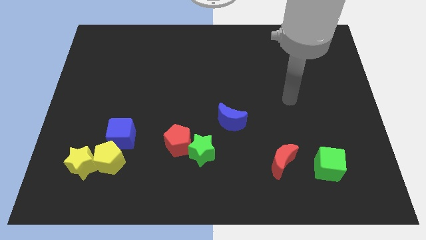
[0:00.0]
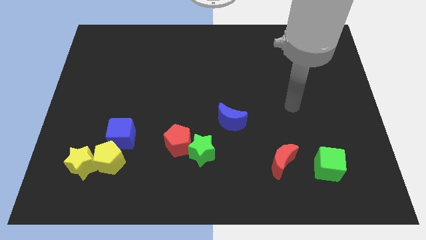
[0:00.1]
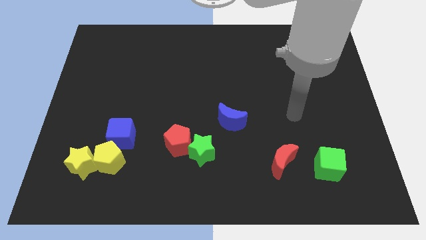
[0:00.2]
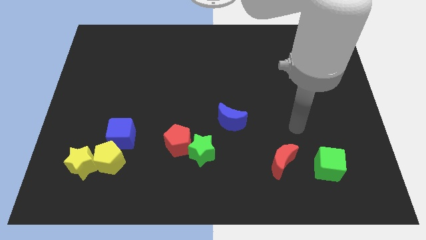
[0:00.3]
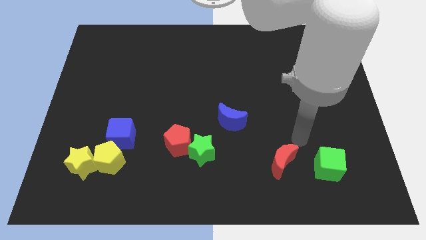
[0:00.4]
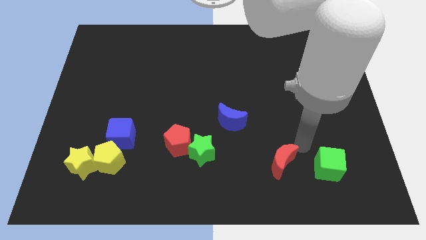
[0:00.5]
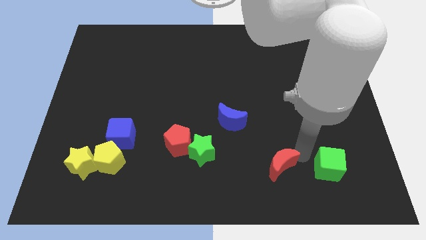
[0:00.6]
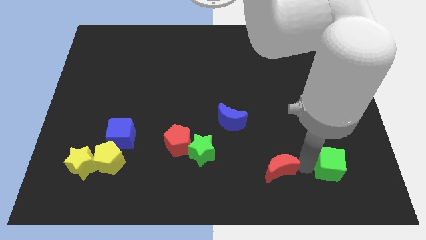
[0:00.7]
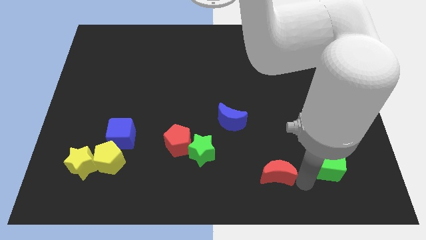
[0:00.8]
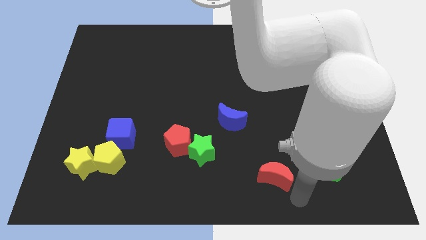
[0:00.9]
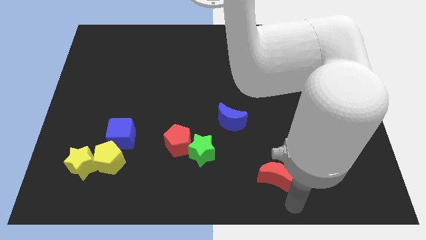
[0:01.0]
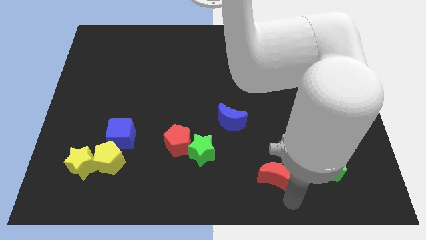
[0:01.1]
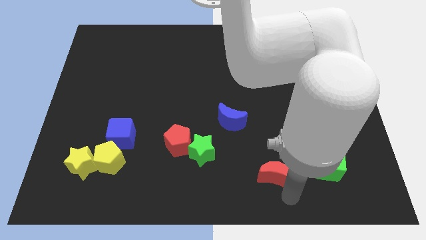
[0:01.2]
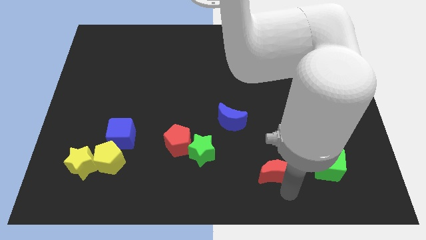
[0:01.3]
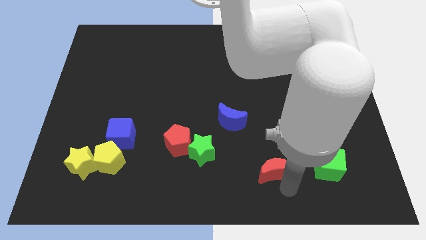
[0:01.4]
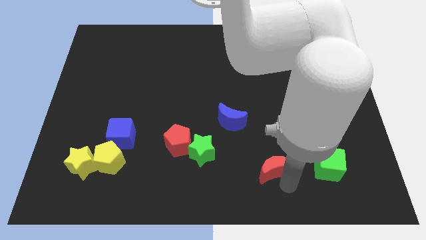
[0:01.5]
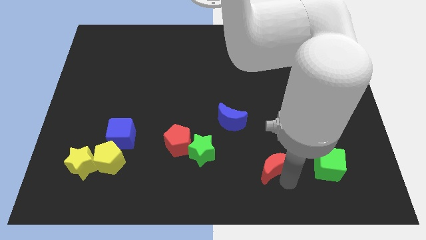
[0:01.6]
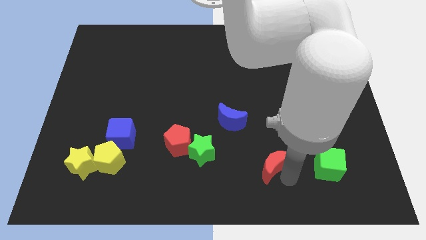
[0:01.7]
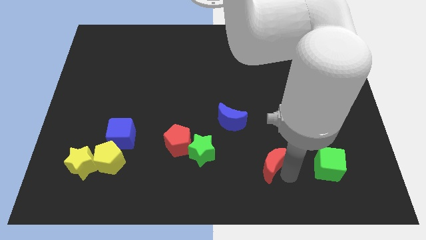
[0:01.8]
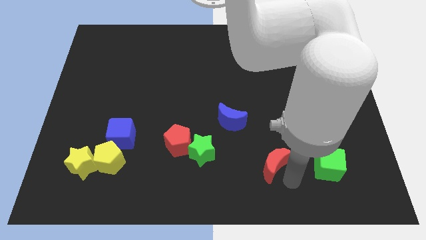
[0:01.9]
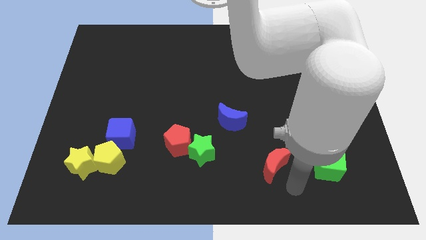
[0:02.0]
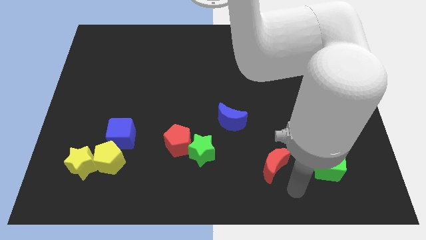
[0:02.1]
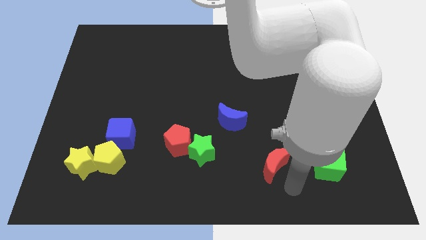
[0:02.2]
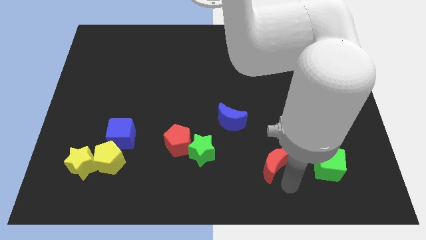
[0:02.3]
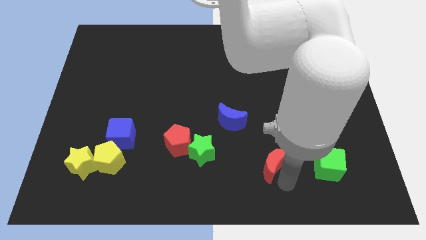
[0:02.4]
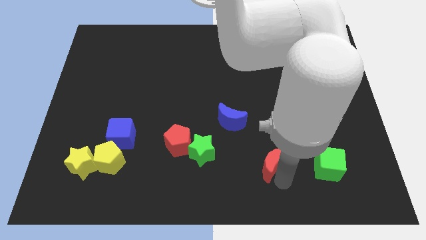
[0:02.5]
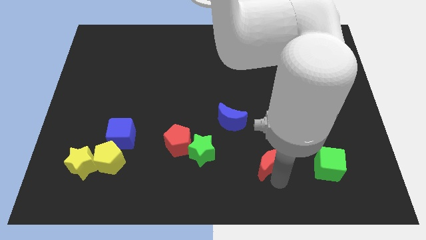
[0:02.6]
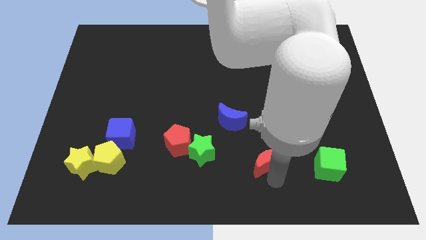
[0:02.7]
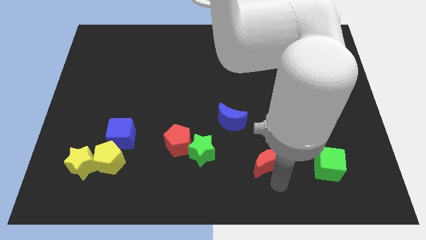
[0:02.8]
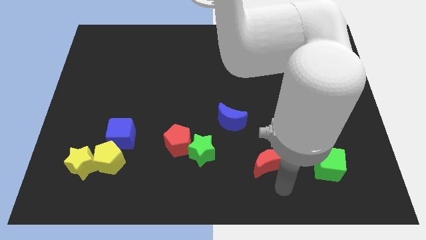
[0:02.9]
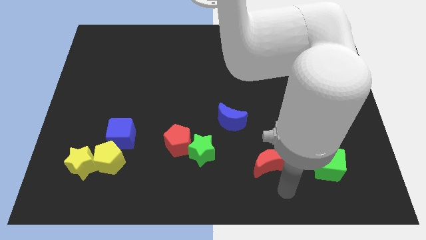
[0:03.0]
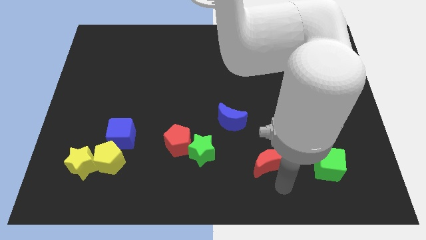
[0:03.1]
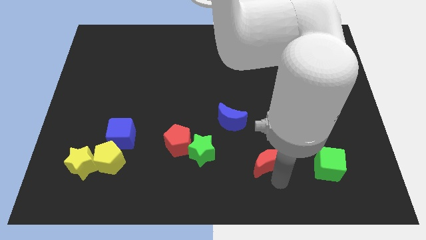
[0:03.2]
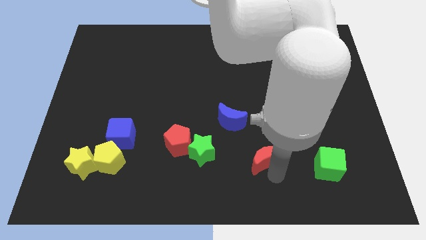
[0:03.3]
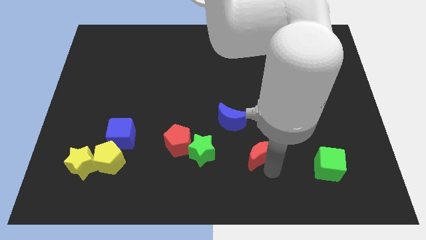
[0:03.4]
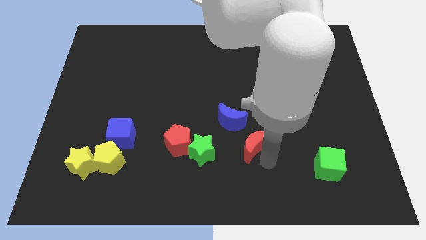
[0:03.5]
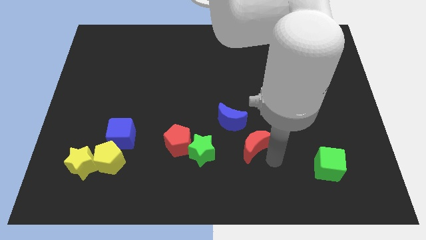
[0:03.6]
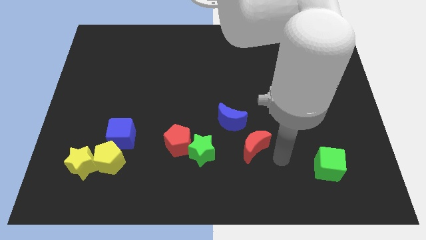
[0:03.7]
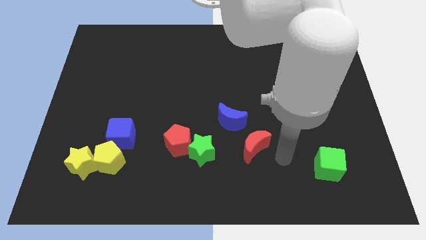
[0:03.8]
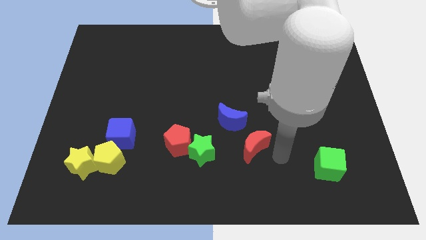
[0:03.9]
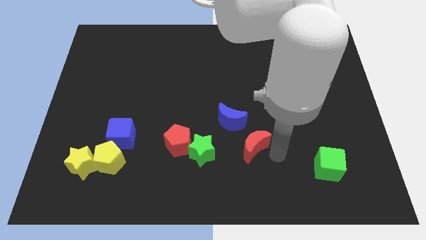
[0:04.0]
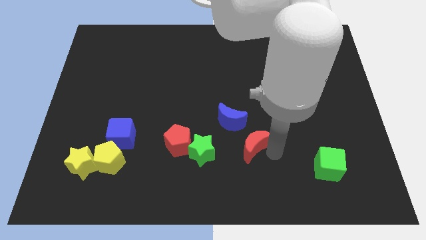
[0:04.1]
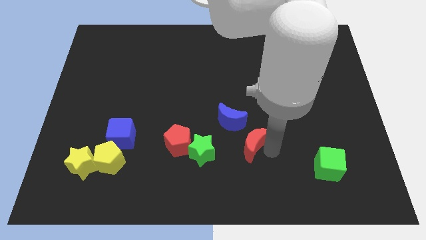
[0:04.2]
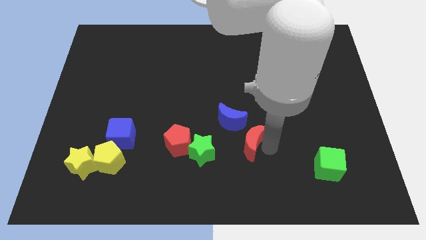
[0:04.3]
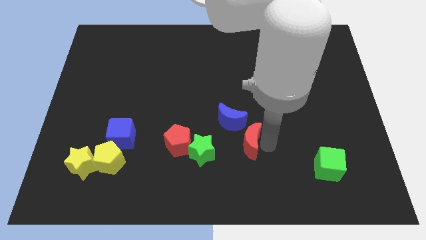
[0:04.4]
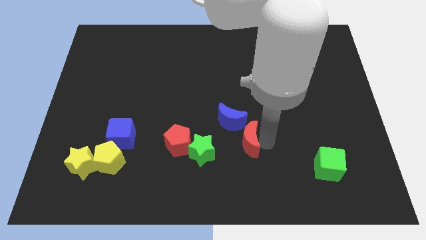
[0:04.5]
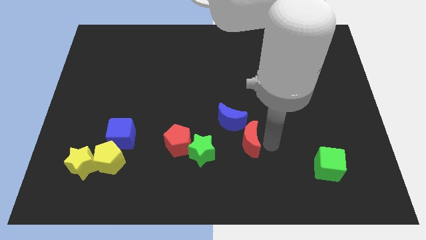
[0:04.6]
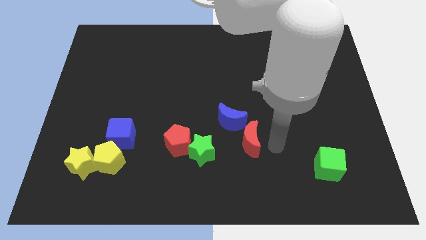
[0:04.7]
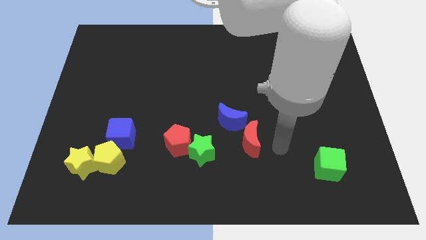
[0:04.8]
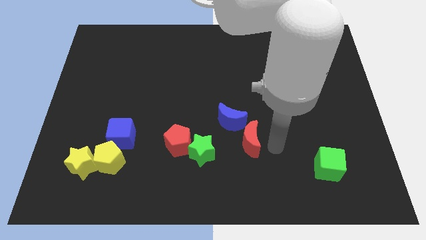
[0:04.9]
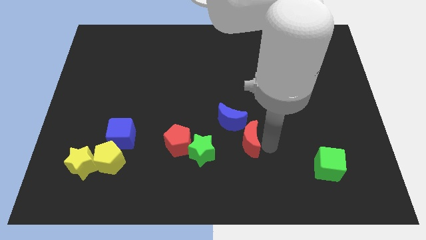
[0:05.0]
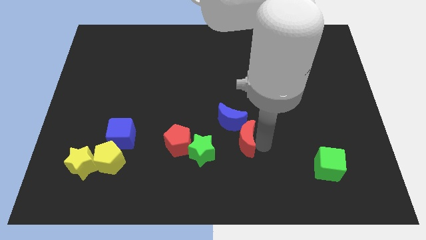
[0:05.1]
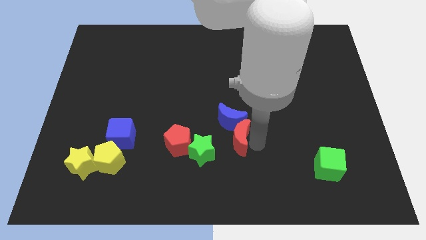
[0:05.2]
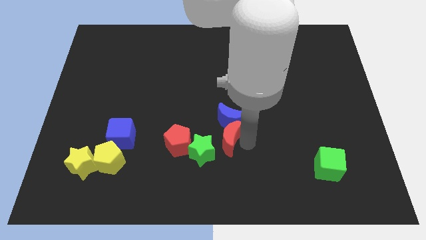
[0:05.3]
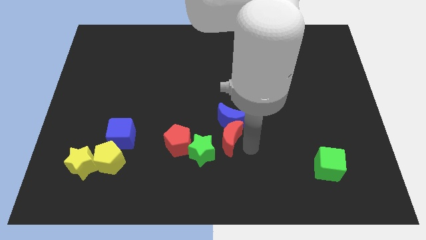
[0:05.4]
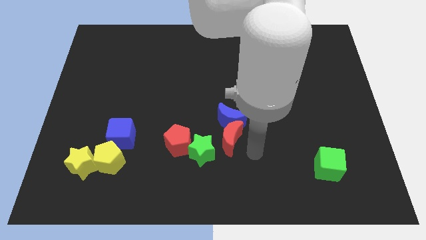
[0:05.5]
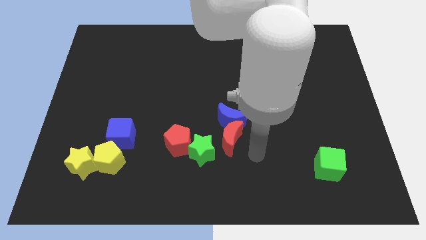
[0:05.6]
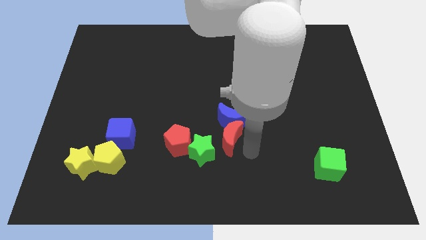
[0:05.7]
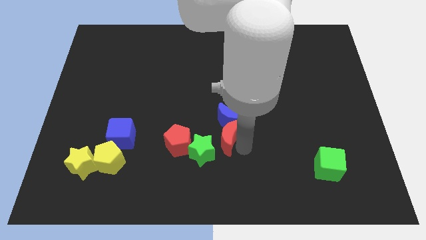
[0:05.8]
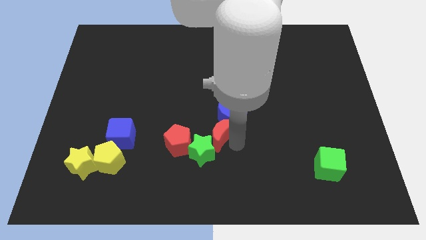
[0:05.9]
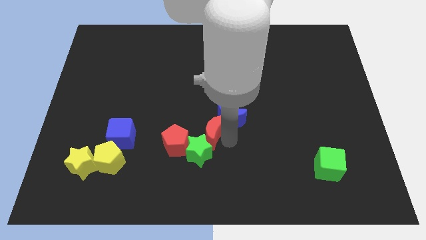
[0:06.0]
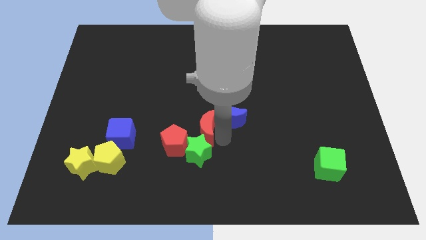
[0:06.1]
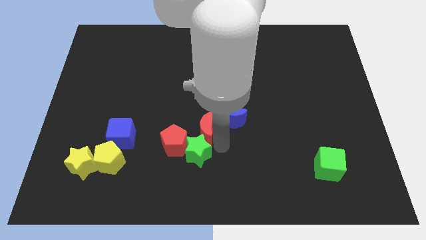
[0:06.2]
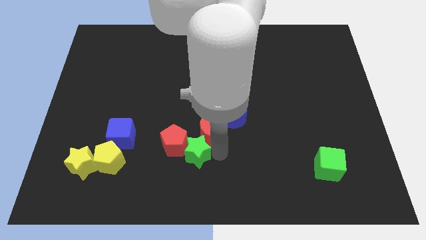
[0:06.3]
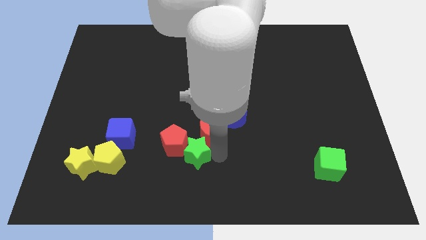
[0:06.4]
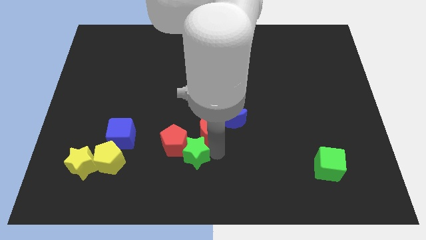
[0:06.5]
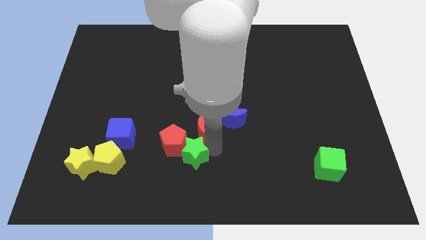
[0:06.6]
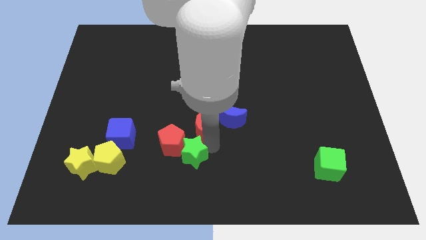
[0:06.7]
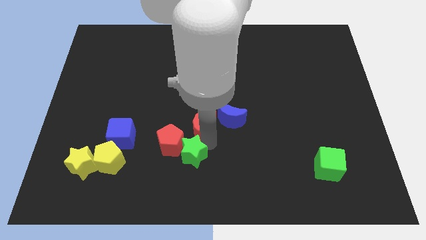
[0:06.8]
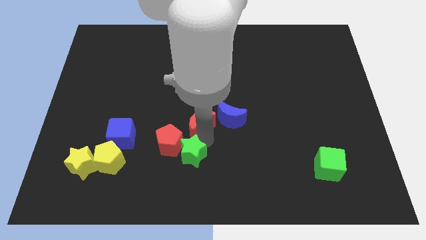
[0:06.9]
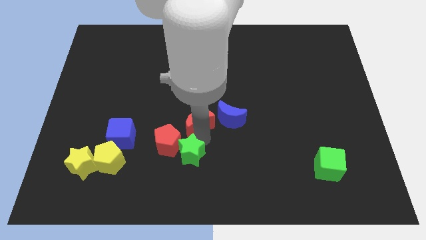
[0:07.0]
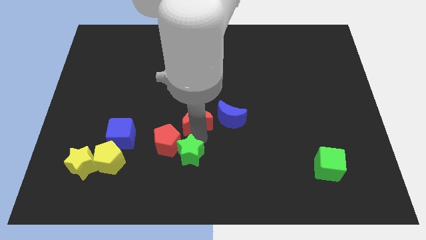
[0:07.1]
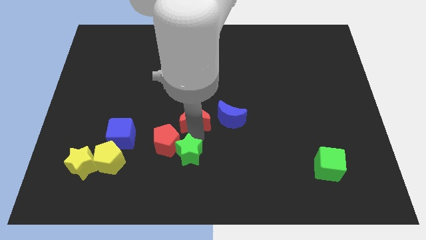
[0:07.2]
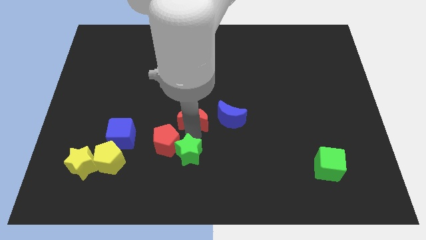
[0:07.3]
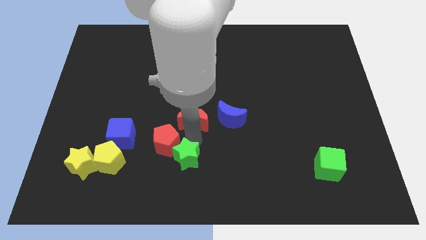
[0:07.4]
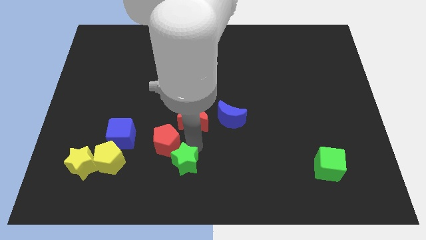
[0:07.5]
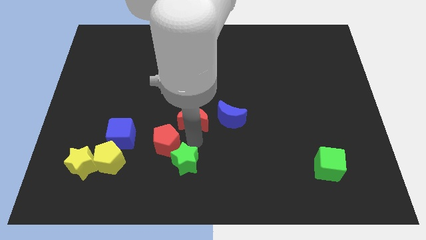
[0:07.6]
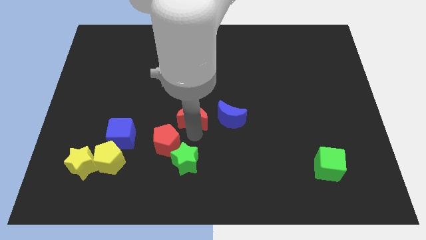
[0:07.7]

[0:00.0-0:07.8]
slide the red moon up and to the left diagonally
